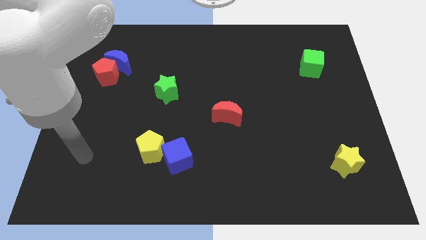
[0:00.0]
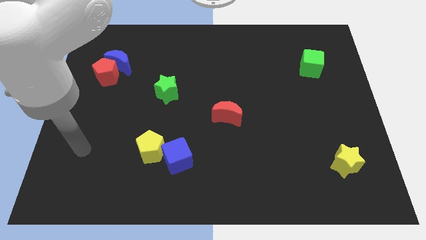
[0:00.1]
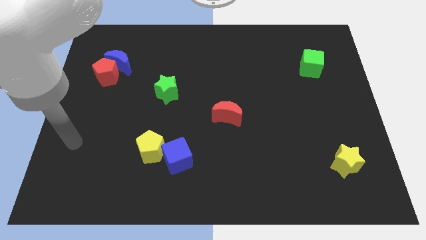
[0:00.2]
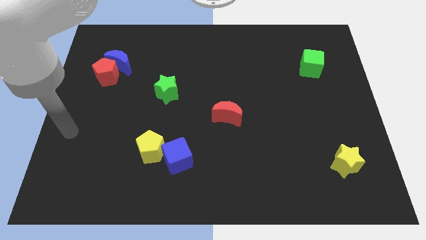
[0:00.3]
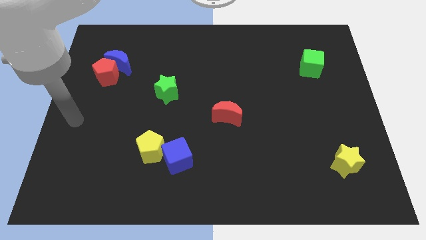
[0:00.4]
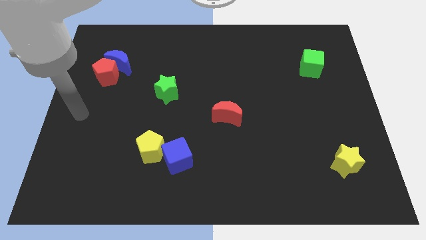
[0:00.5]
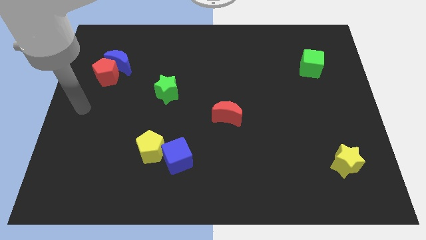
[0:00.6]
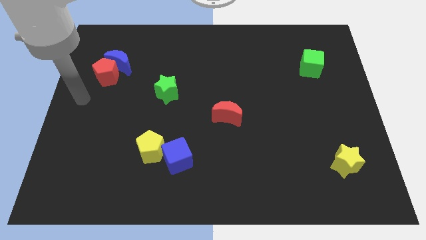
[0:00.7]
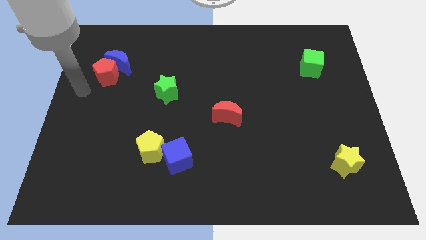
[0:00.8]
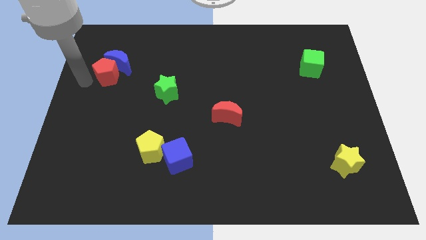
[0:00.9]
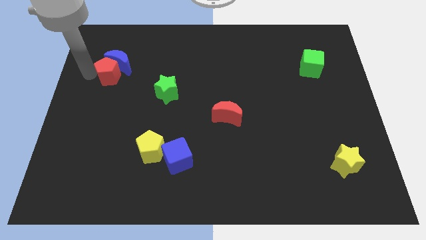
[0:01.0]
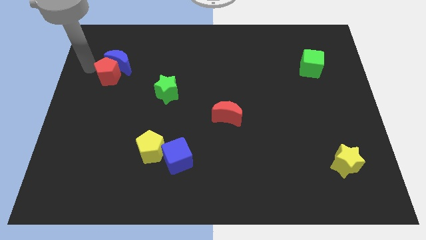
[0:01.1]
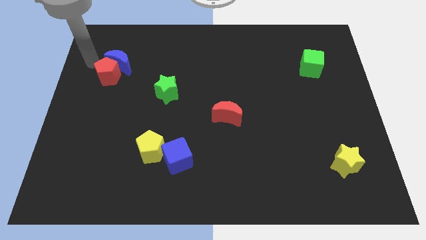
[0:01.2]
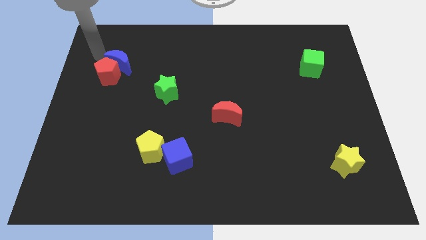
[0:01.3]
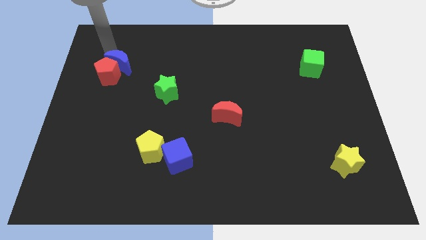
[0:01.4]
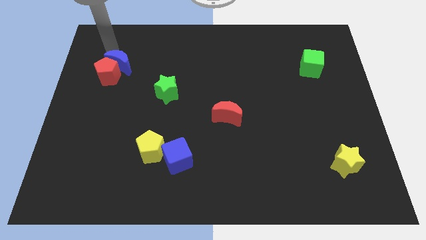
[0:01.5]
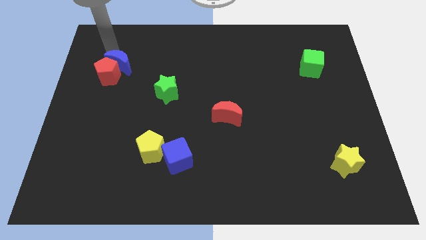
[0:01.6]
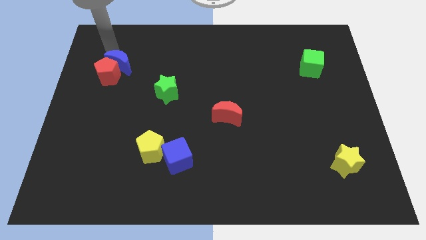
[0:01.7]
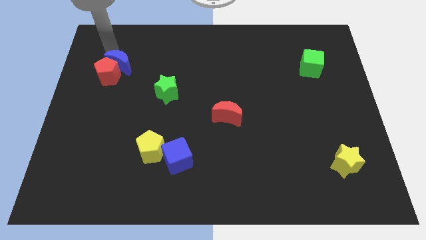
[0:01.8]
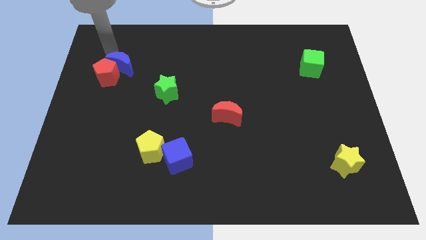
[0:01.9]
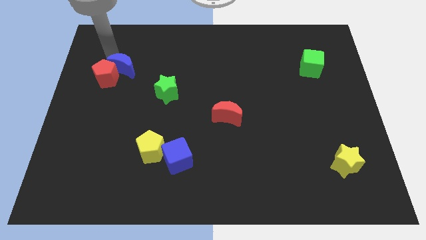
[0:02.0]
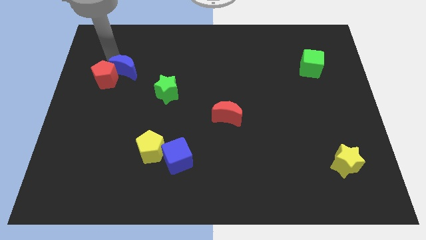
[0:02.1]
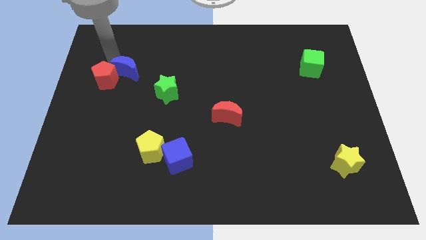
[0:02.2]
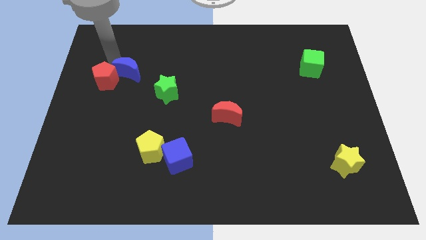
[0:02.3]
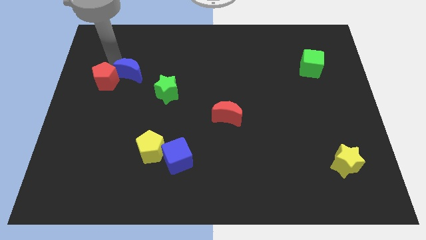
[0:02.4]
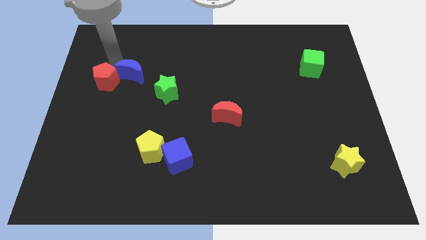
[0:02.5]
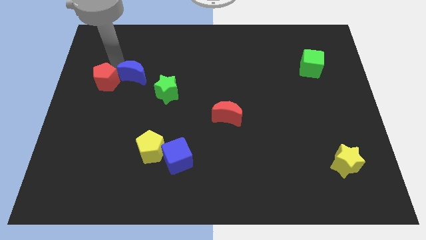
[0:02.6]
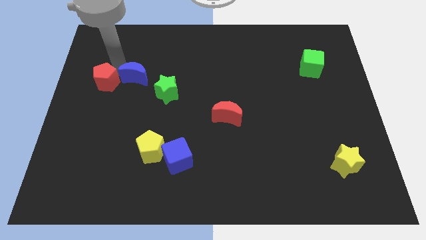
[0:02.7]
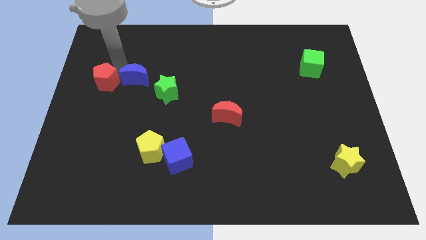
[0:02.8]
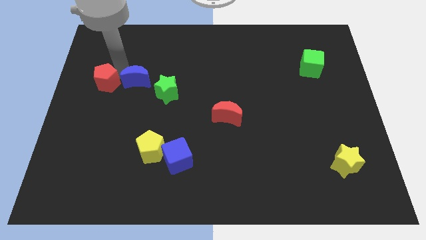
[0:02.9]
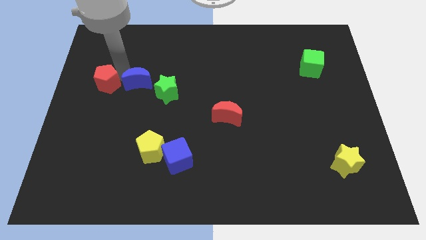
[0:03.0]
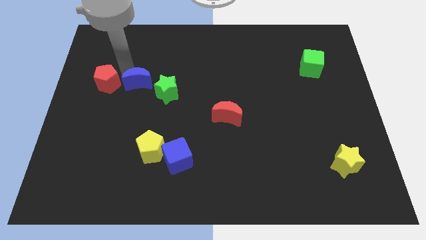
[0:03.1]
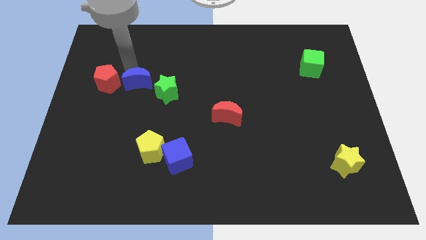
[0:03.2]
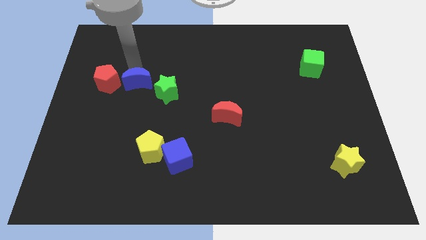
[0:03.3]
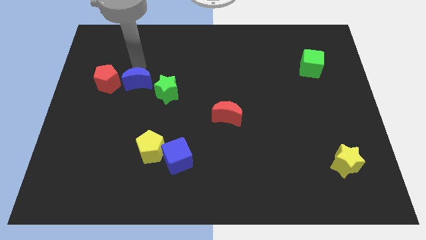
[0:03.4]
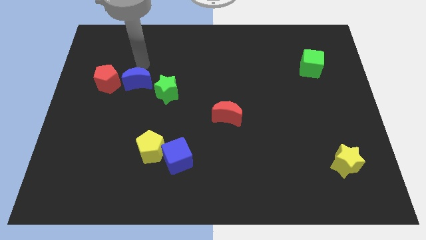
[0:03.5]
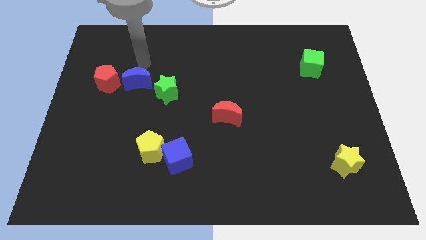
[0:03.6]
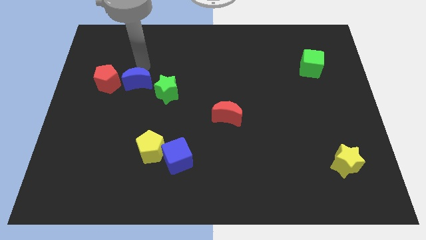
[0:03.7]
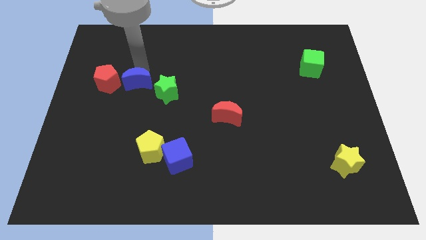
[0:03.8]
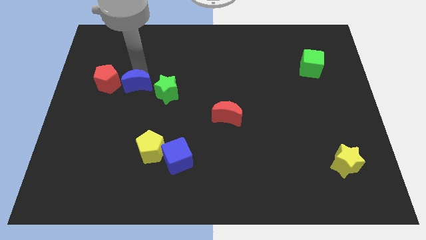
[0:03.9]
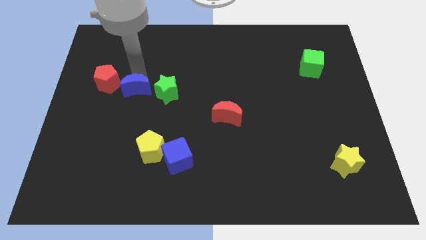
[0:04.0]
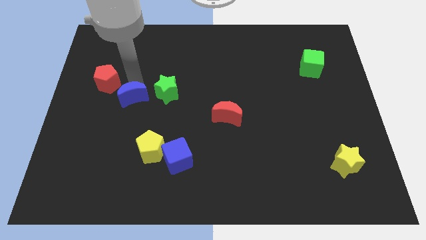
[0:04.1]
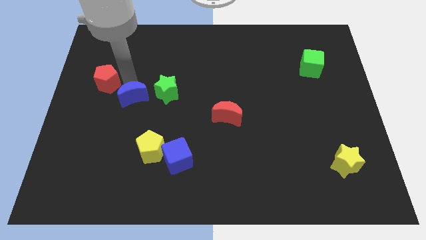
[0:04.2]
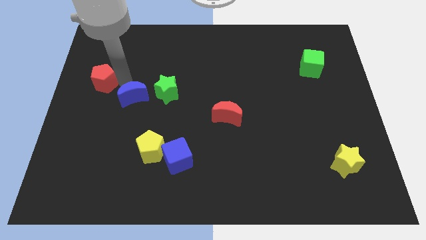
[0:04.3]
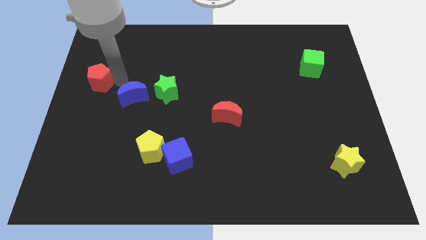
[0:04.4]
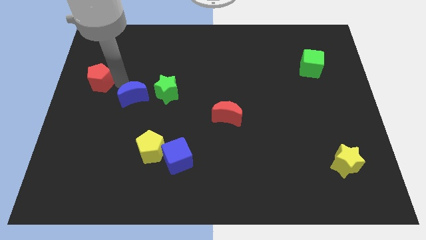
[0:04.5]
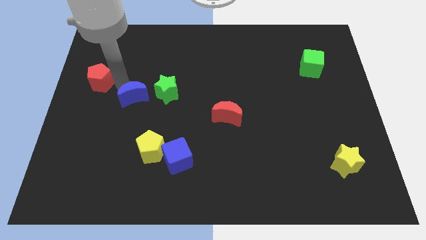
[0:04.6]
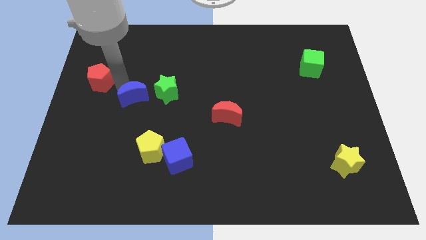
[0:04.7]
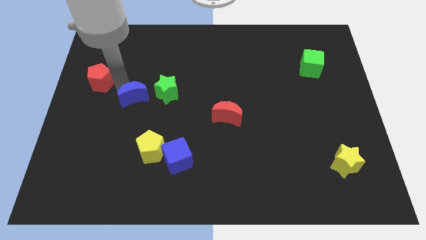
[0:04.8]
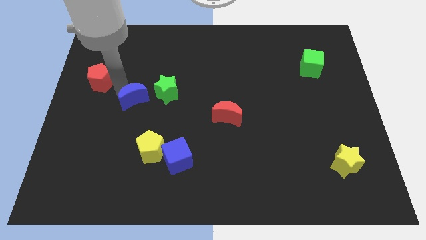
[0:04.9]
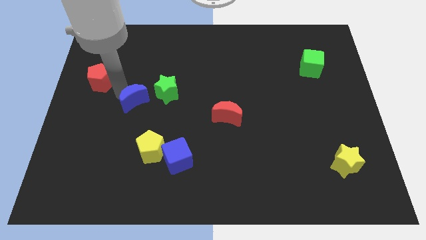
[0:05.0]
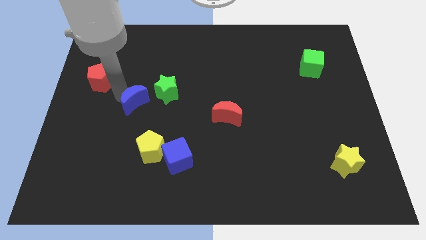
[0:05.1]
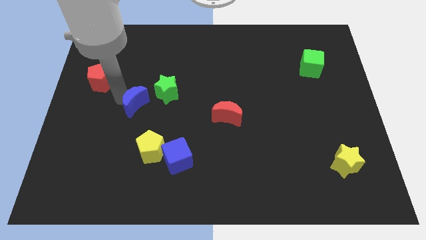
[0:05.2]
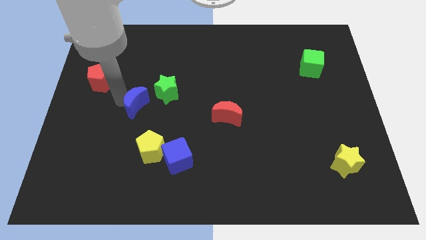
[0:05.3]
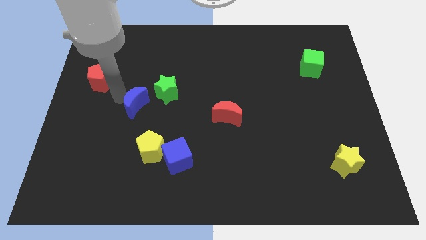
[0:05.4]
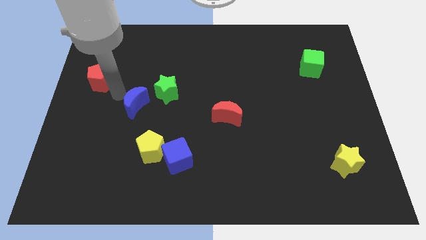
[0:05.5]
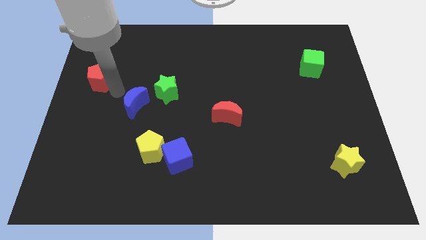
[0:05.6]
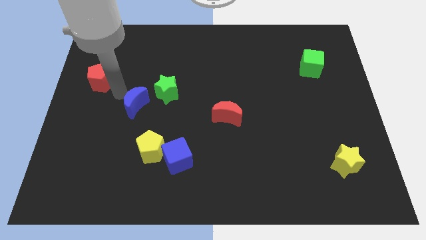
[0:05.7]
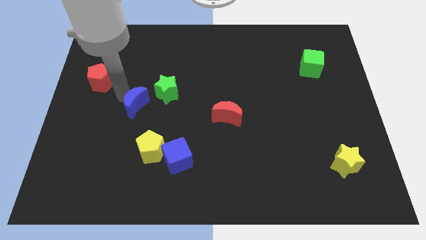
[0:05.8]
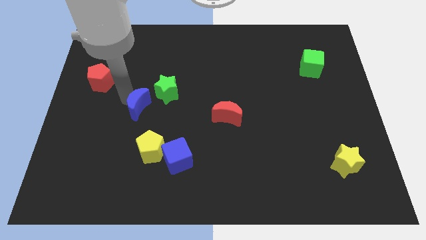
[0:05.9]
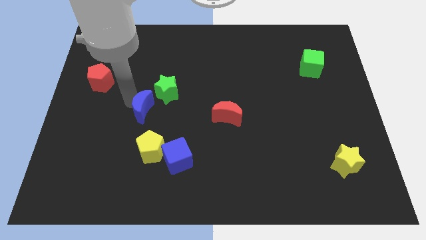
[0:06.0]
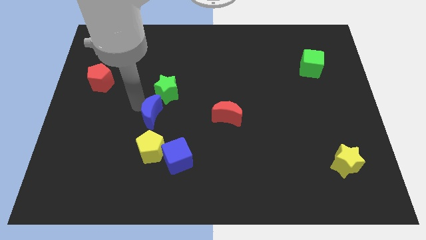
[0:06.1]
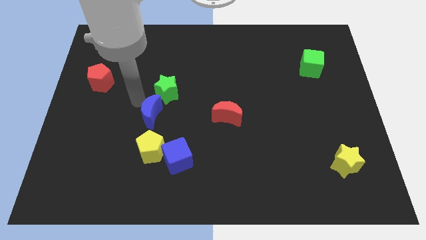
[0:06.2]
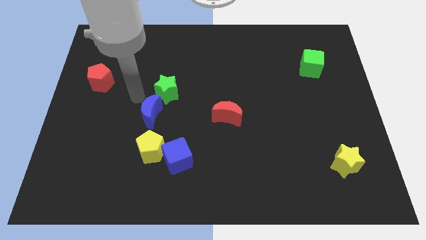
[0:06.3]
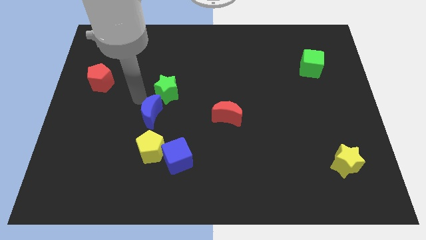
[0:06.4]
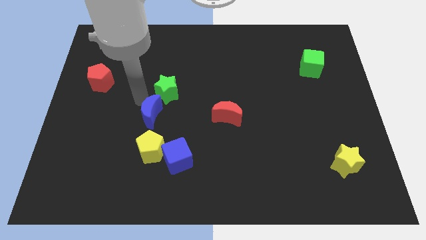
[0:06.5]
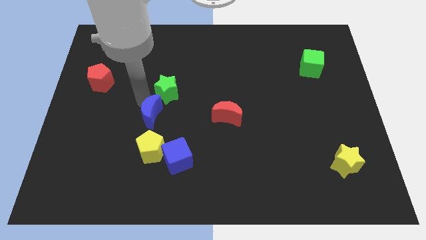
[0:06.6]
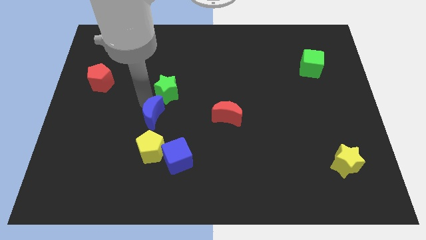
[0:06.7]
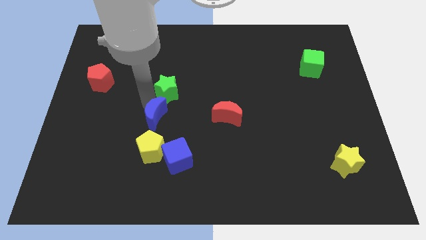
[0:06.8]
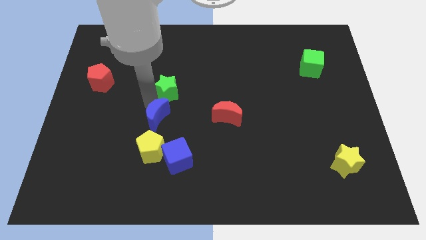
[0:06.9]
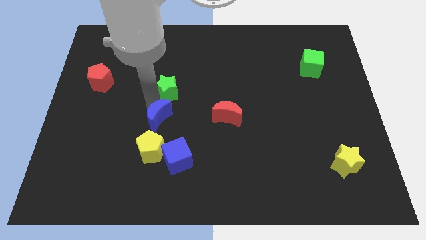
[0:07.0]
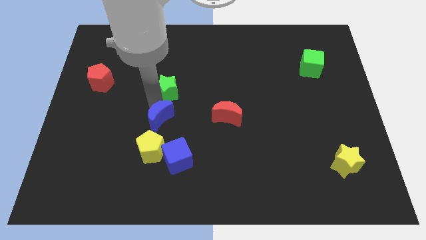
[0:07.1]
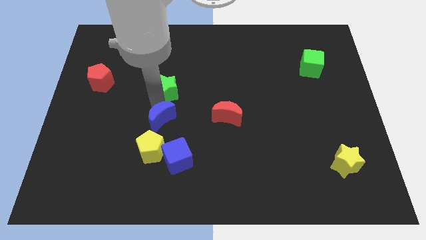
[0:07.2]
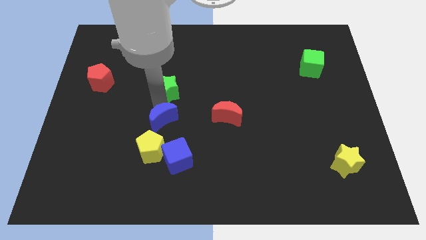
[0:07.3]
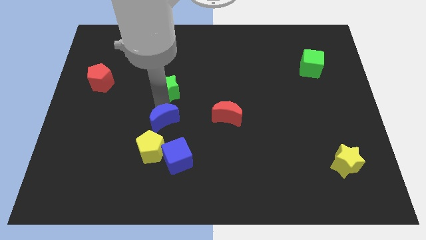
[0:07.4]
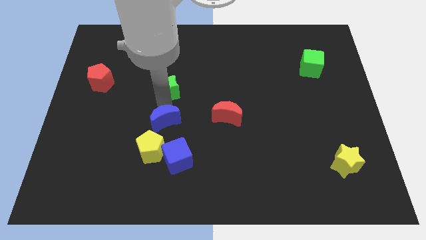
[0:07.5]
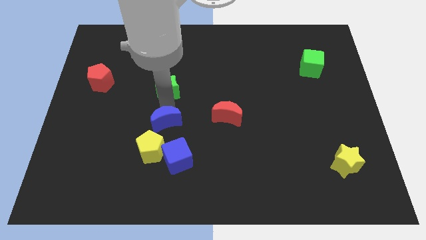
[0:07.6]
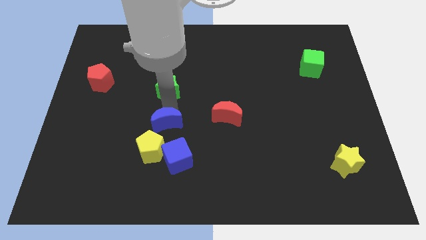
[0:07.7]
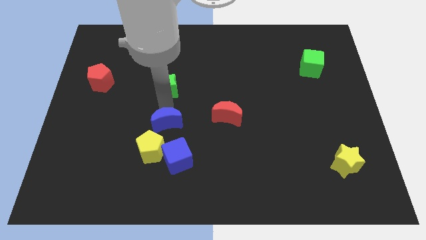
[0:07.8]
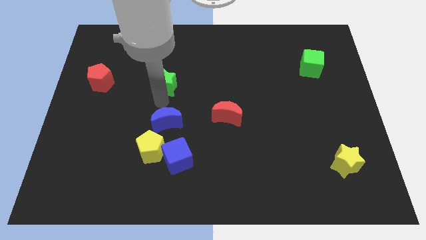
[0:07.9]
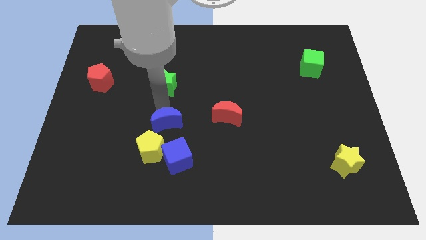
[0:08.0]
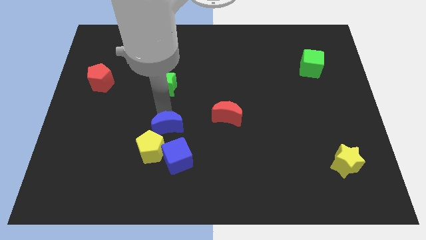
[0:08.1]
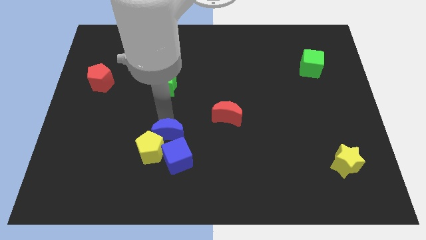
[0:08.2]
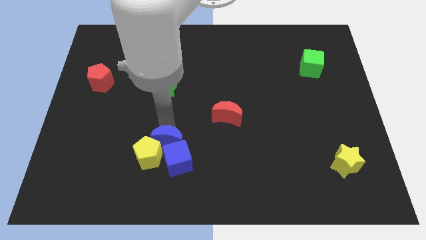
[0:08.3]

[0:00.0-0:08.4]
push the blue moon to the blue cube
